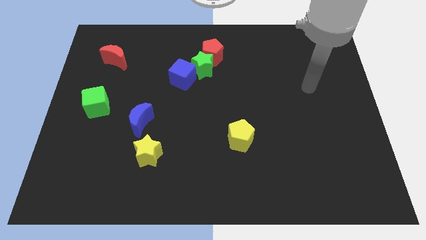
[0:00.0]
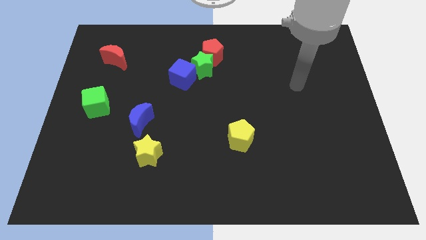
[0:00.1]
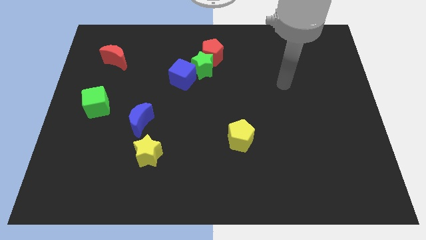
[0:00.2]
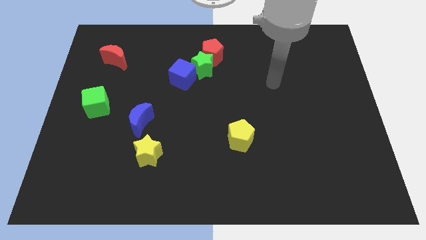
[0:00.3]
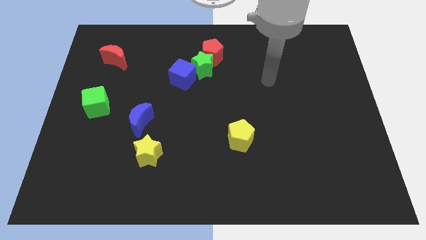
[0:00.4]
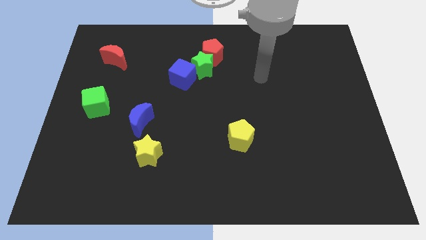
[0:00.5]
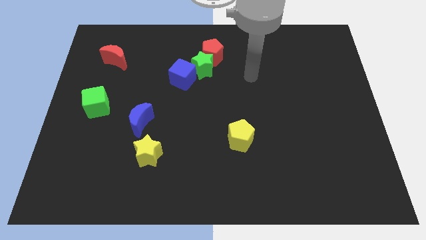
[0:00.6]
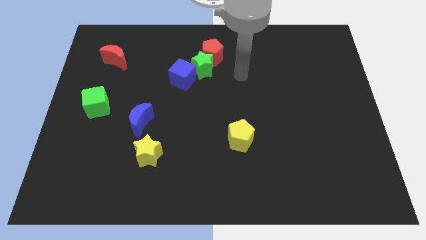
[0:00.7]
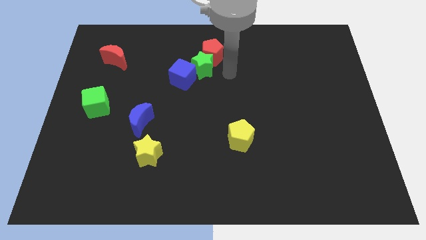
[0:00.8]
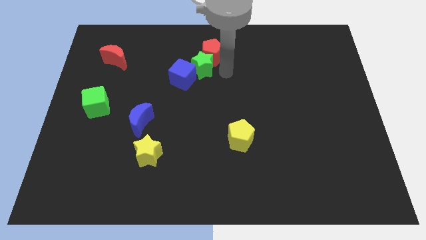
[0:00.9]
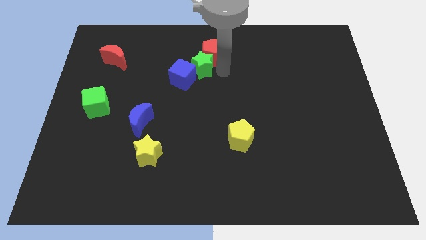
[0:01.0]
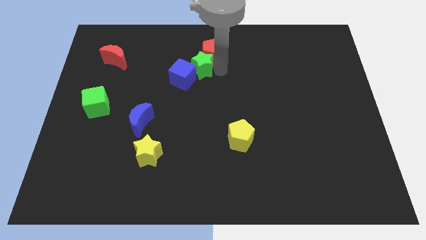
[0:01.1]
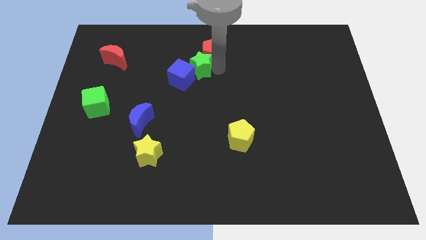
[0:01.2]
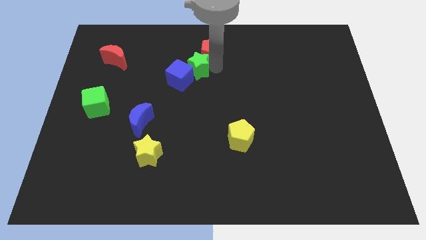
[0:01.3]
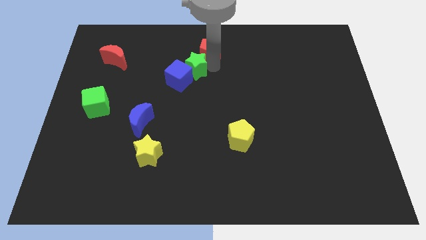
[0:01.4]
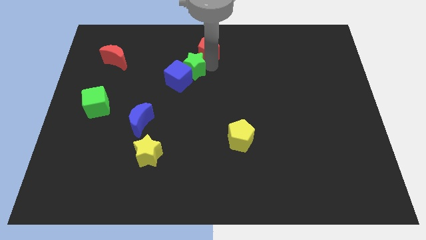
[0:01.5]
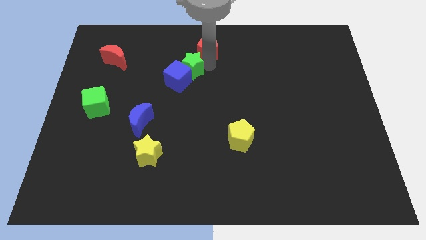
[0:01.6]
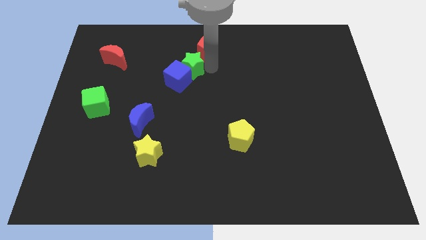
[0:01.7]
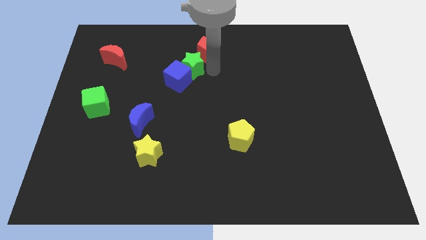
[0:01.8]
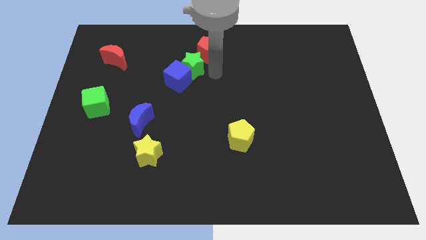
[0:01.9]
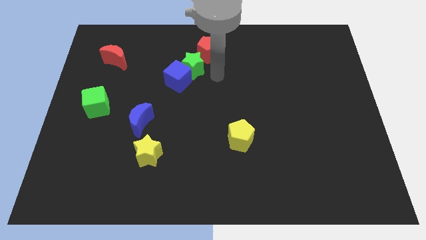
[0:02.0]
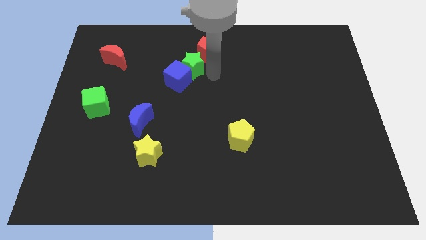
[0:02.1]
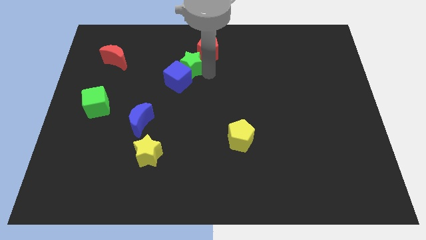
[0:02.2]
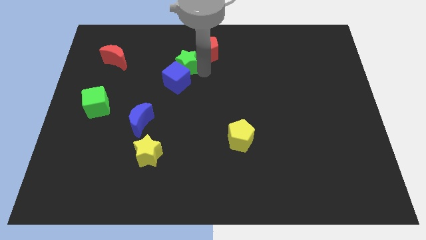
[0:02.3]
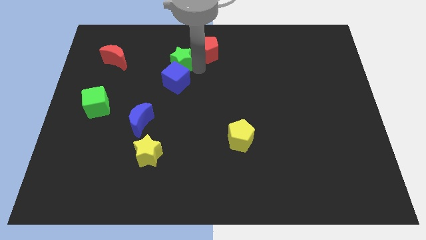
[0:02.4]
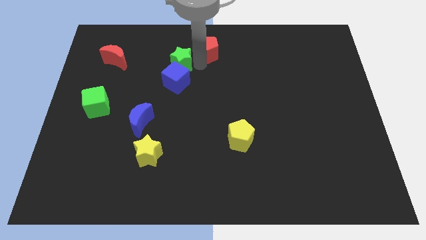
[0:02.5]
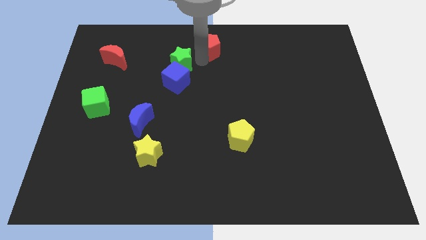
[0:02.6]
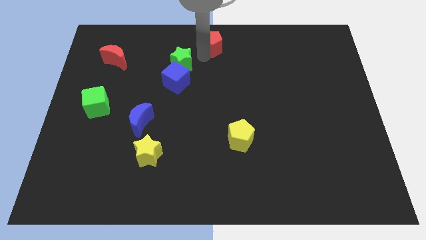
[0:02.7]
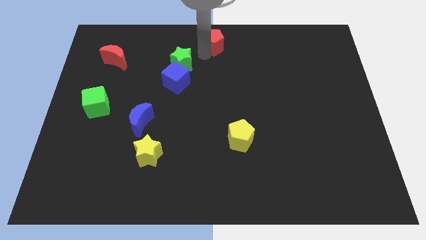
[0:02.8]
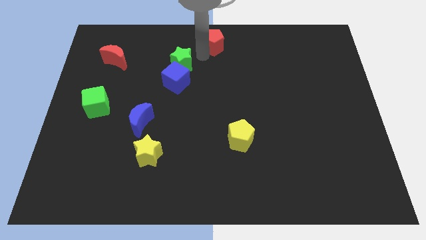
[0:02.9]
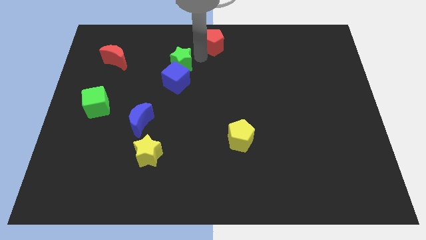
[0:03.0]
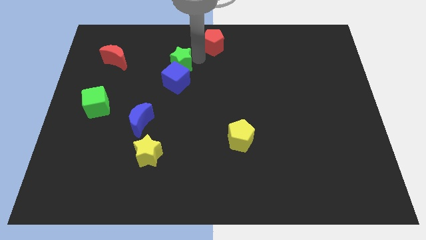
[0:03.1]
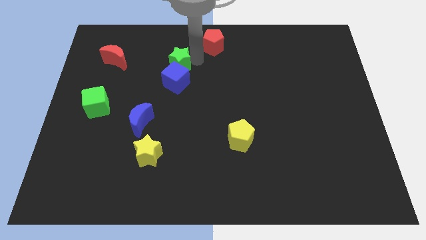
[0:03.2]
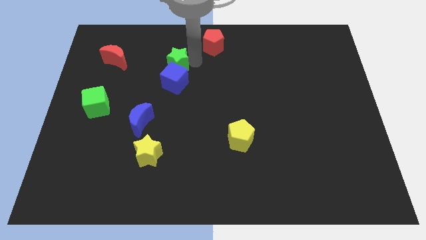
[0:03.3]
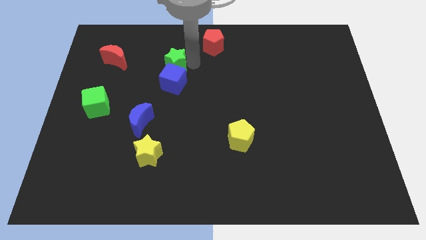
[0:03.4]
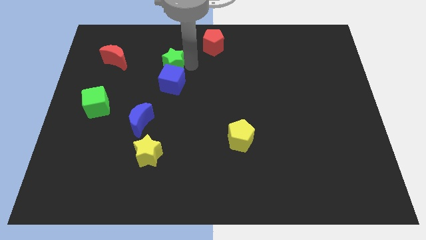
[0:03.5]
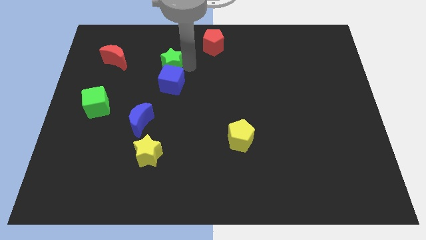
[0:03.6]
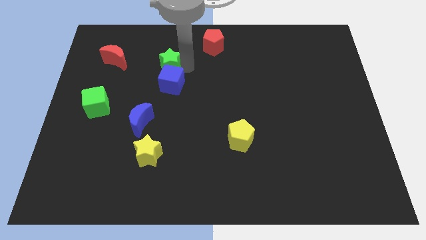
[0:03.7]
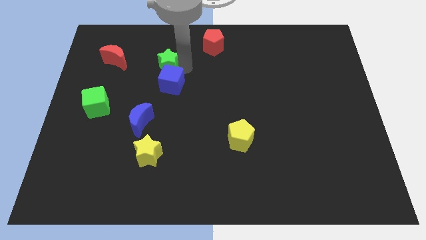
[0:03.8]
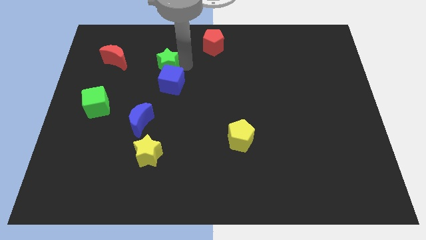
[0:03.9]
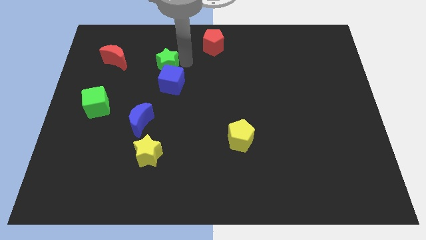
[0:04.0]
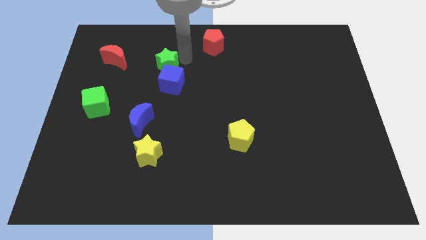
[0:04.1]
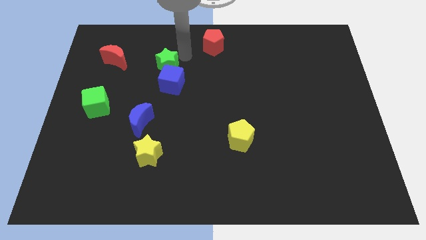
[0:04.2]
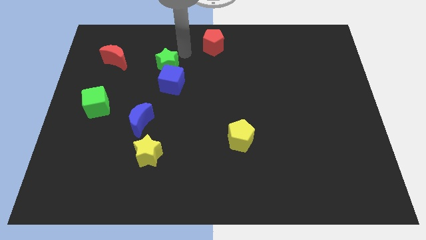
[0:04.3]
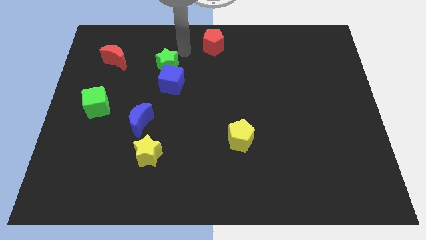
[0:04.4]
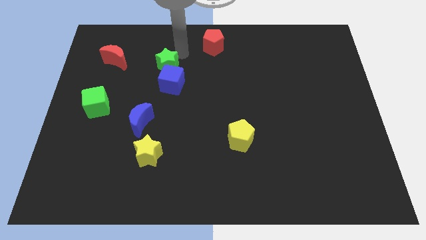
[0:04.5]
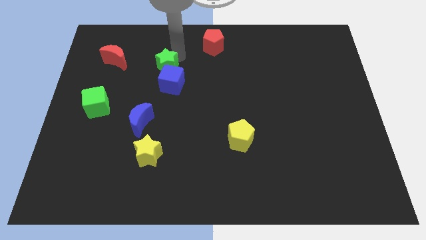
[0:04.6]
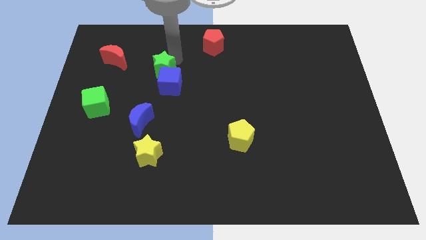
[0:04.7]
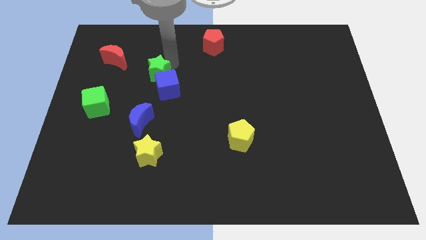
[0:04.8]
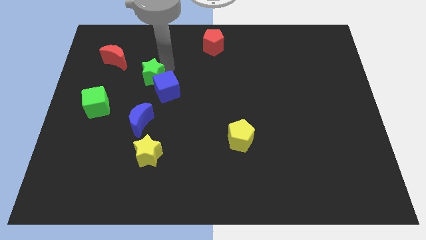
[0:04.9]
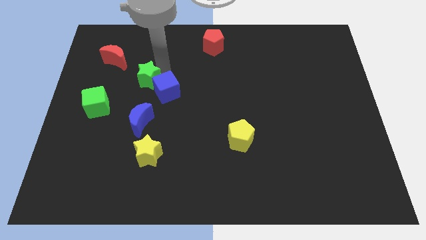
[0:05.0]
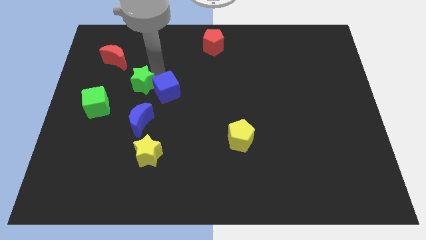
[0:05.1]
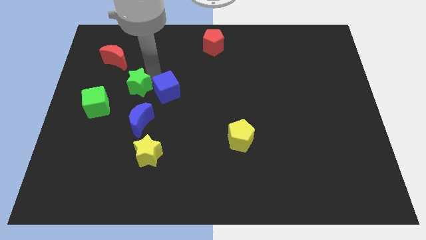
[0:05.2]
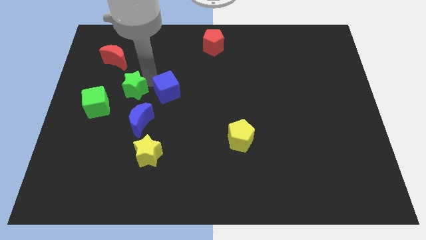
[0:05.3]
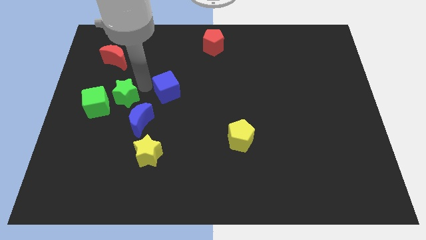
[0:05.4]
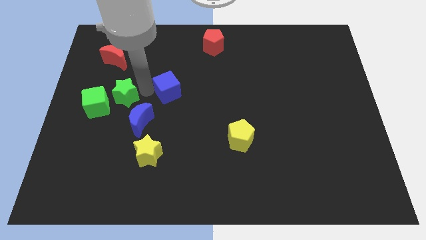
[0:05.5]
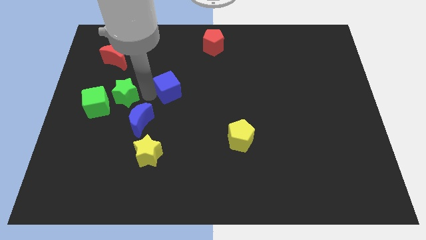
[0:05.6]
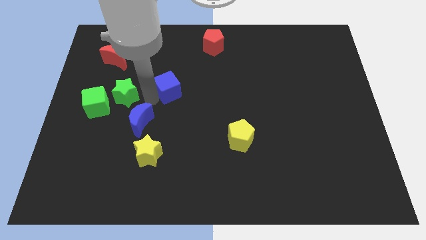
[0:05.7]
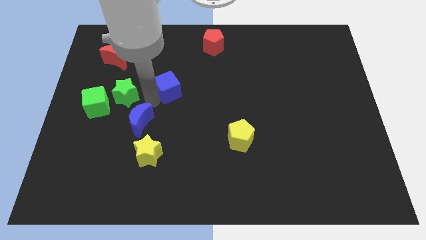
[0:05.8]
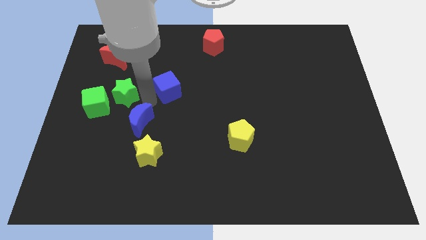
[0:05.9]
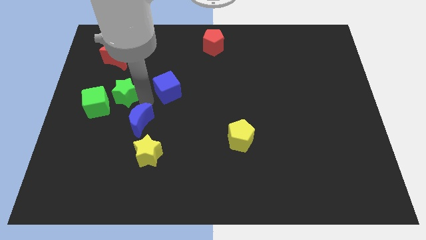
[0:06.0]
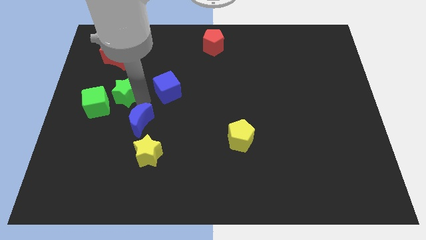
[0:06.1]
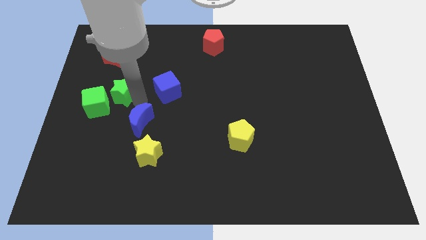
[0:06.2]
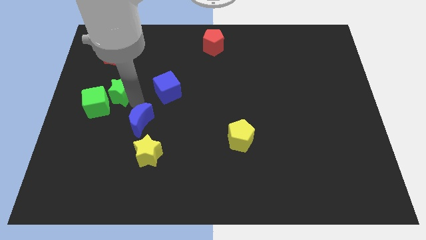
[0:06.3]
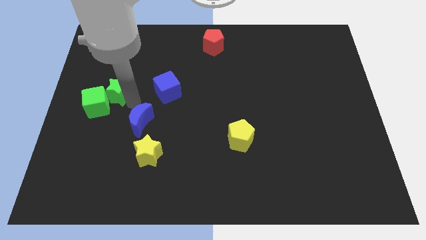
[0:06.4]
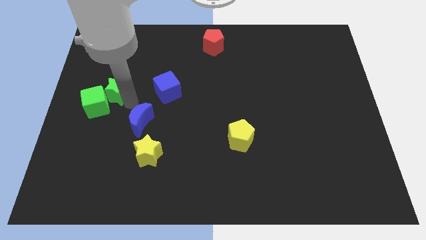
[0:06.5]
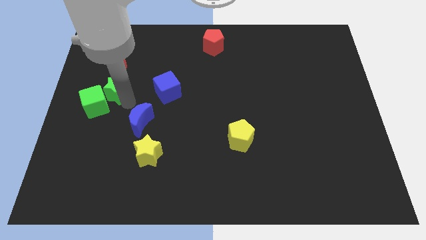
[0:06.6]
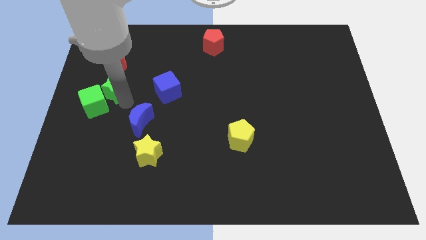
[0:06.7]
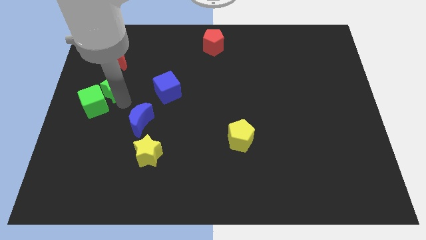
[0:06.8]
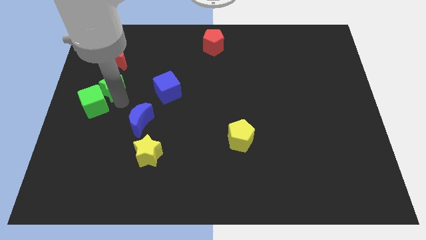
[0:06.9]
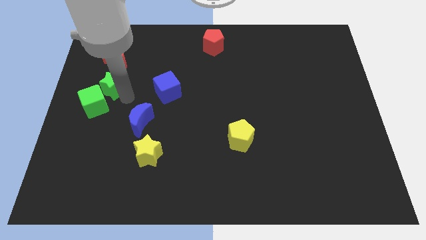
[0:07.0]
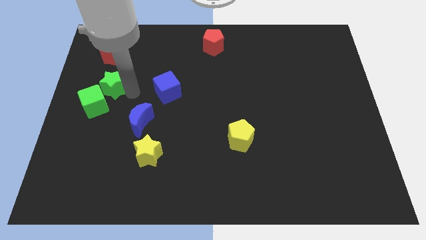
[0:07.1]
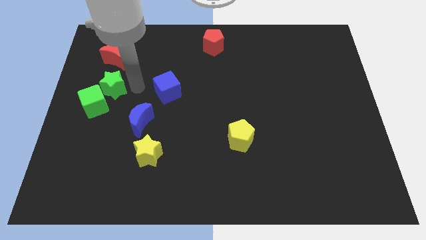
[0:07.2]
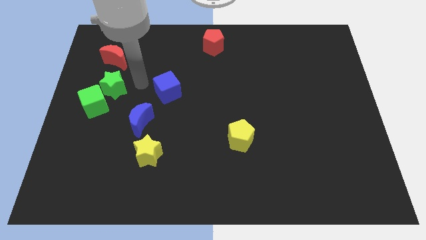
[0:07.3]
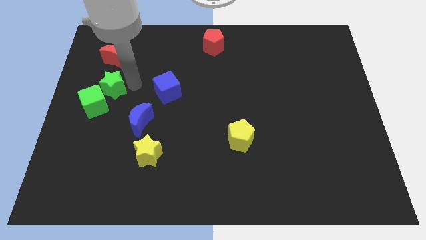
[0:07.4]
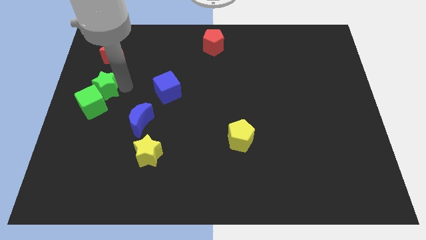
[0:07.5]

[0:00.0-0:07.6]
put the green star to the left side of the board
